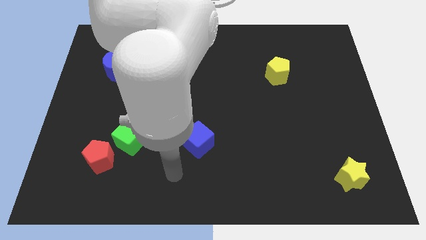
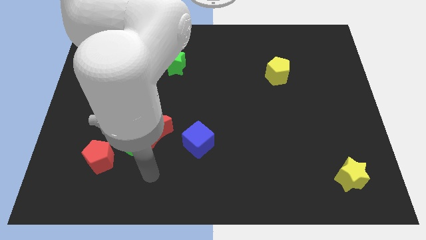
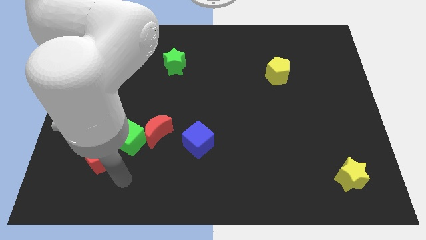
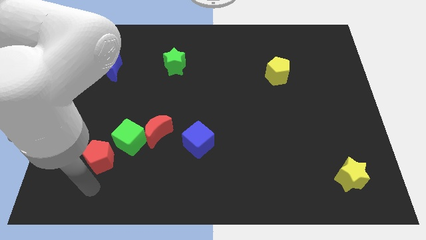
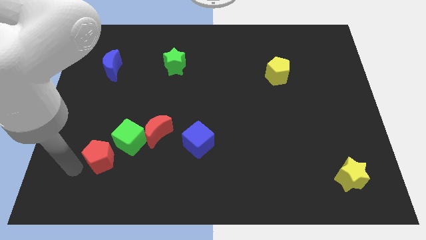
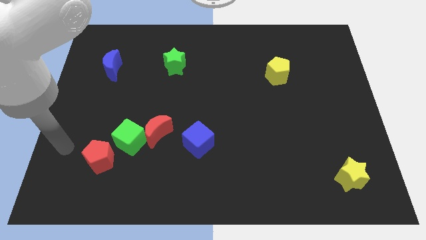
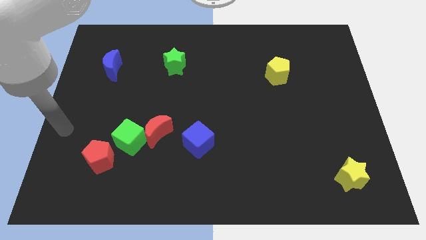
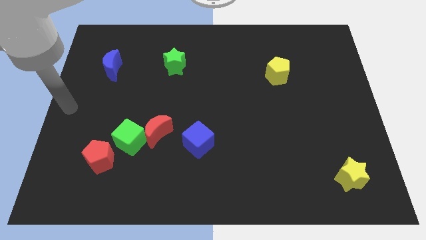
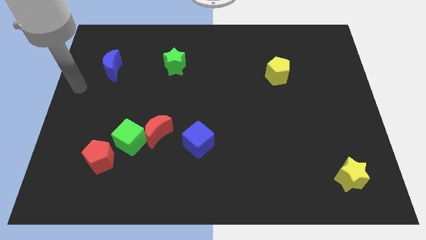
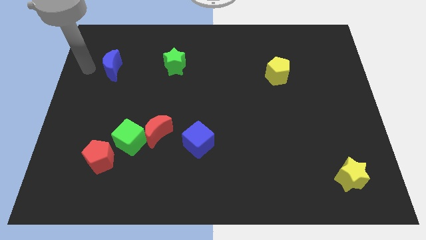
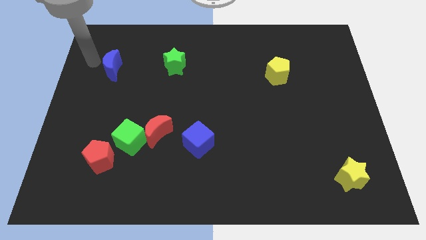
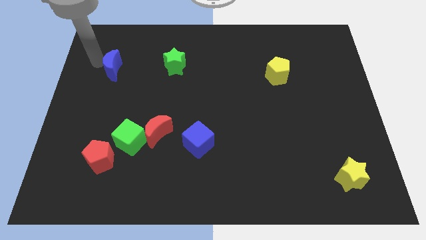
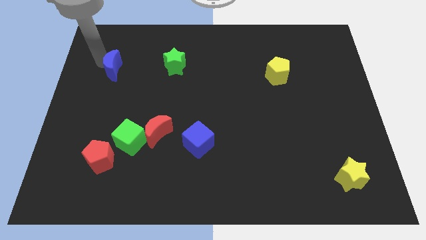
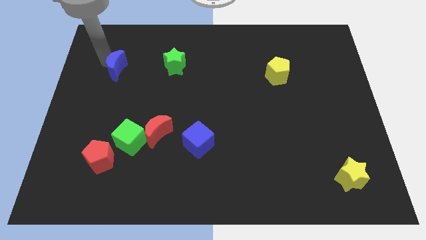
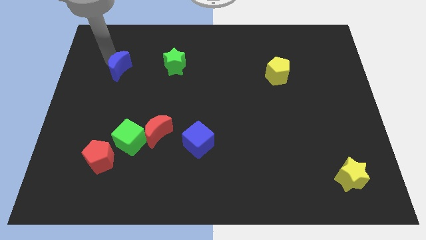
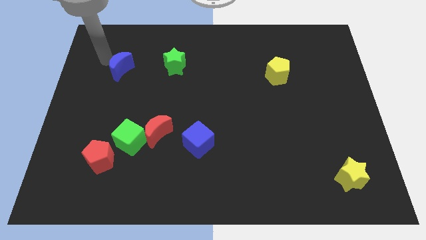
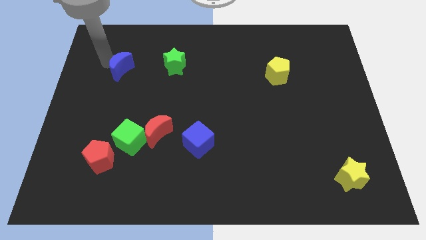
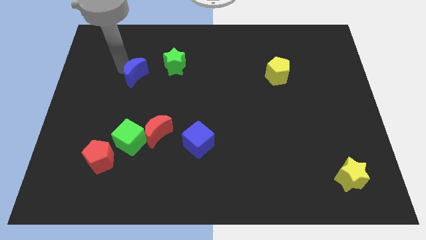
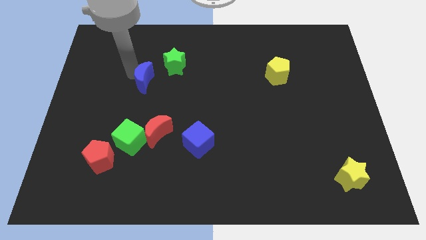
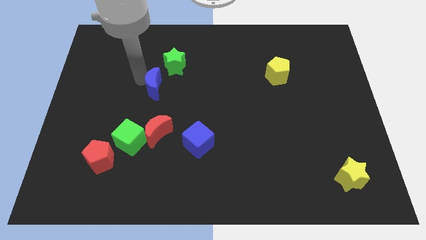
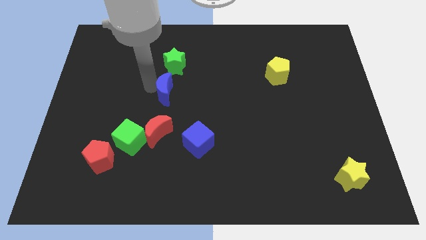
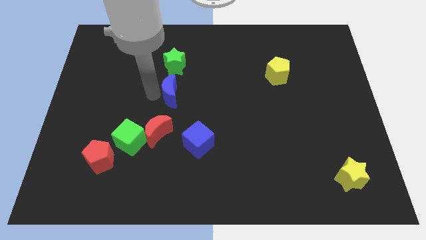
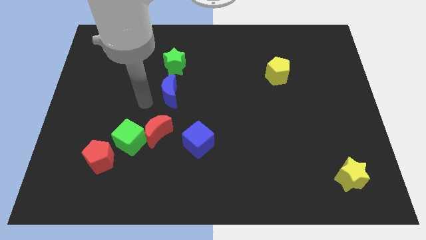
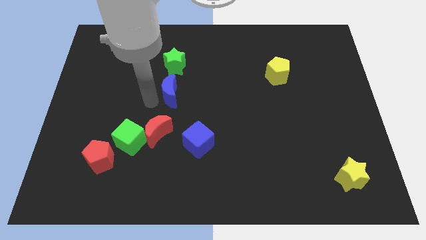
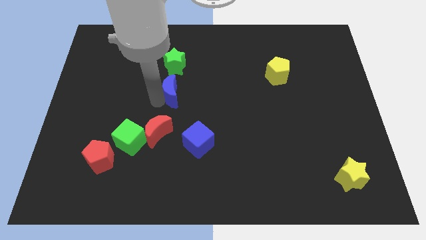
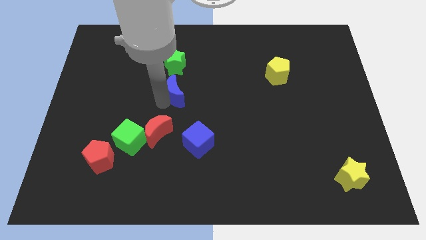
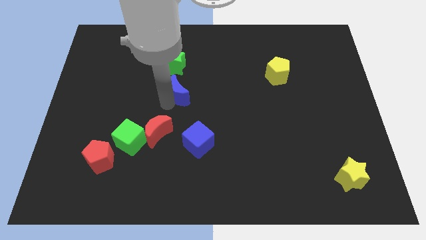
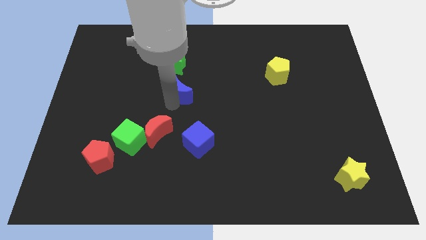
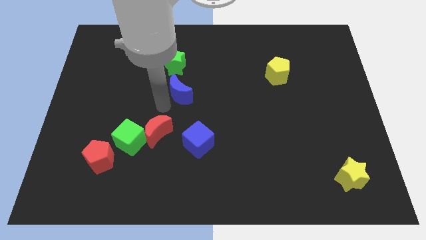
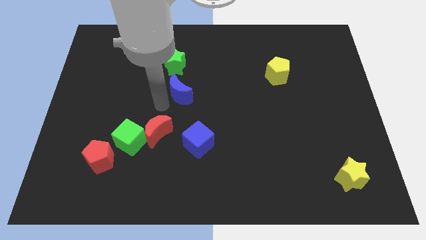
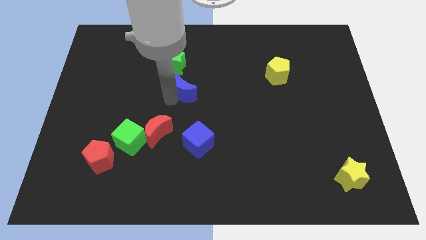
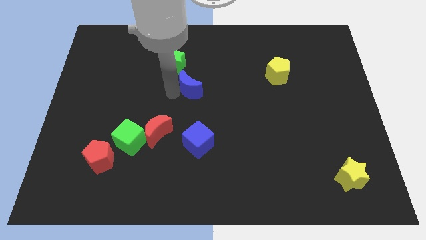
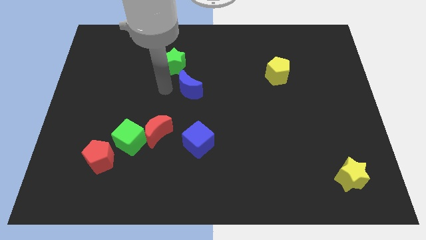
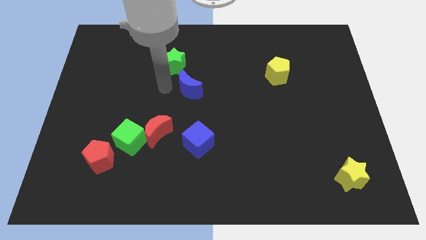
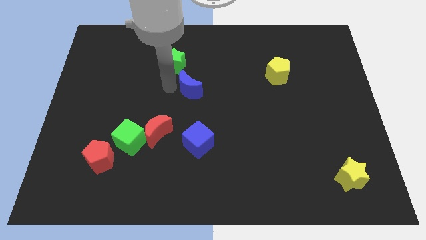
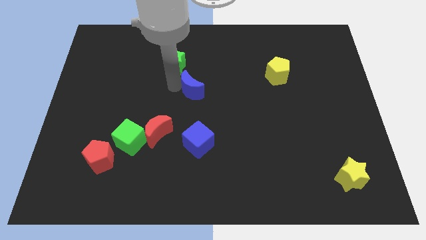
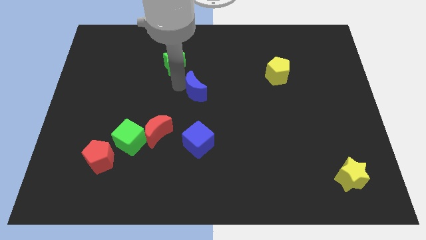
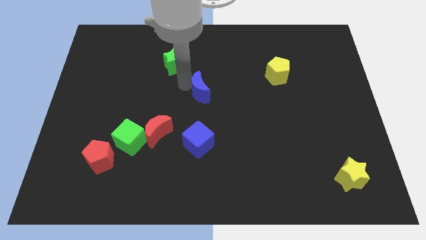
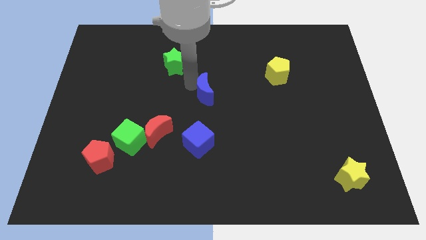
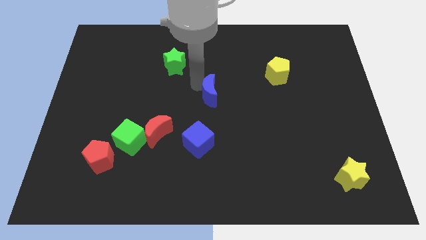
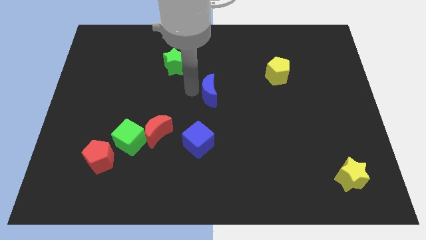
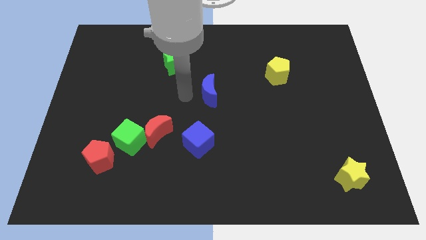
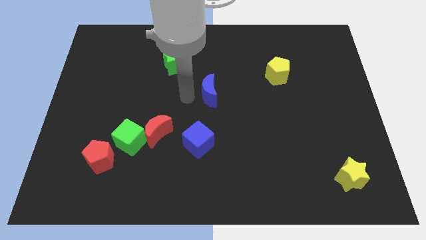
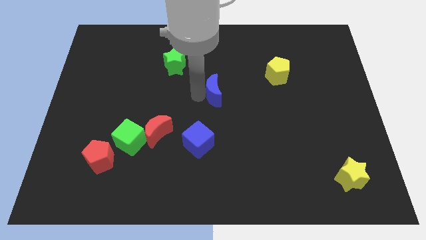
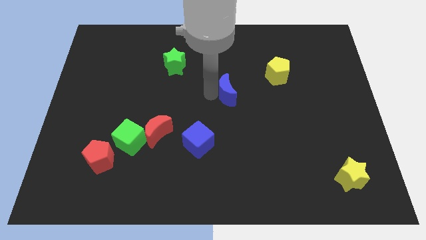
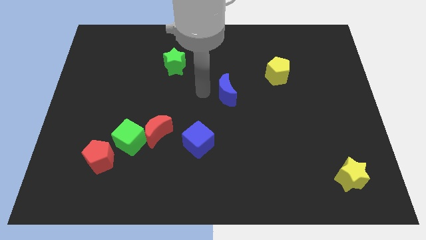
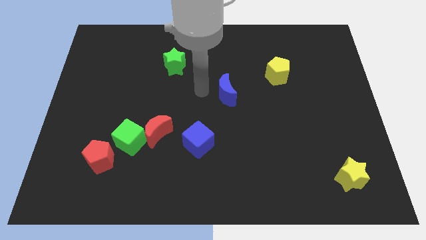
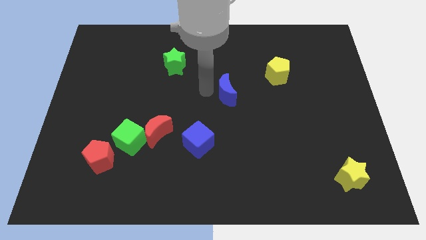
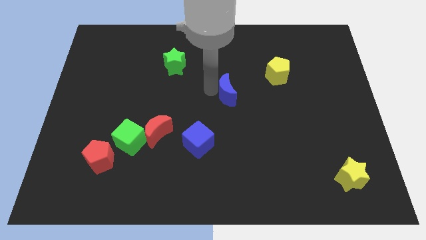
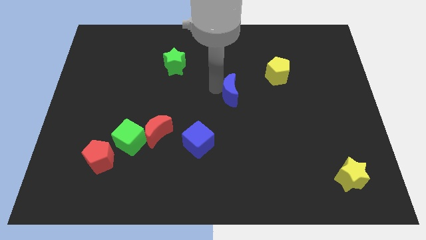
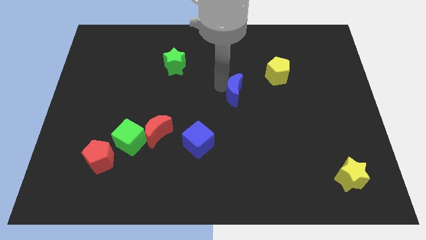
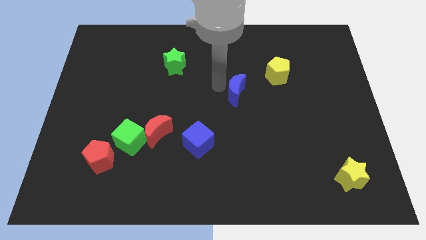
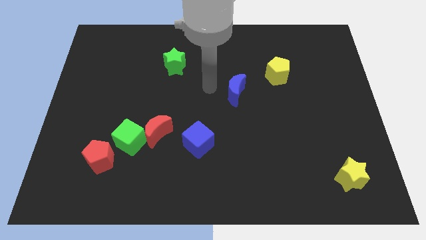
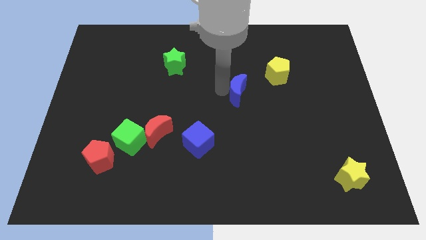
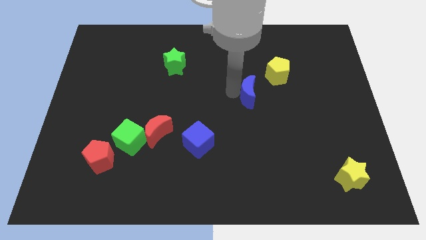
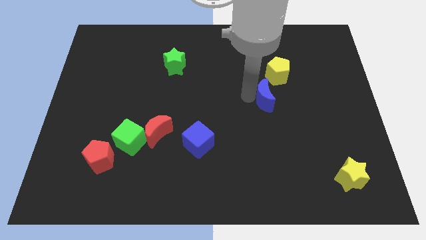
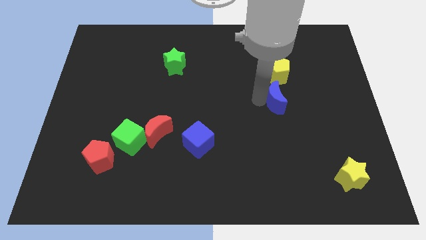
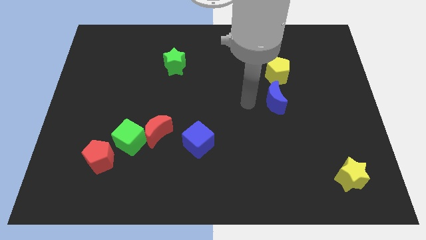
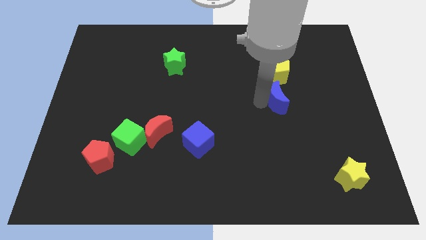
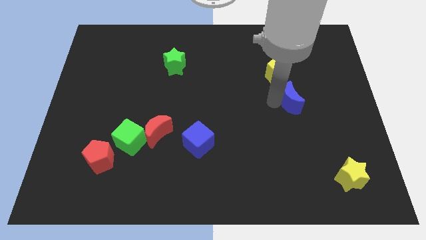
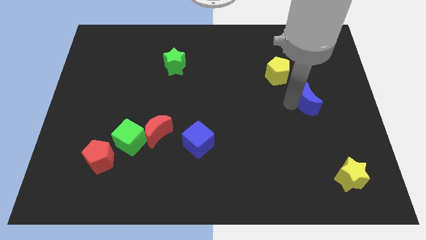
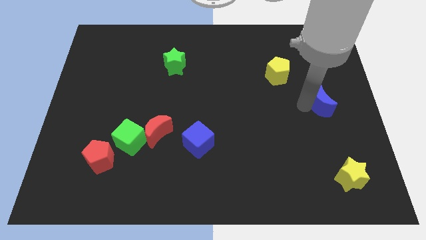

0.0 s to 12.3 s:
push the blue moon to the center right

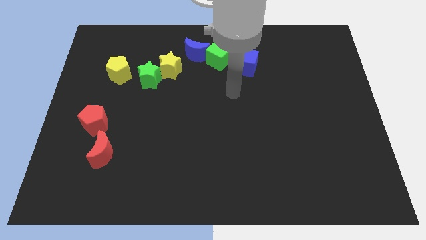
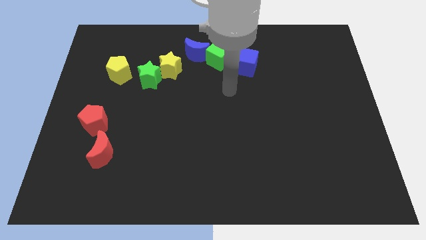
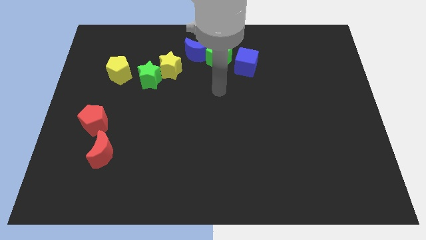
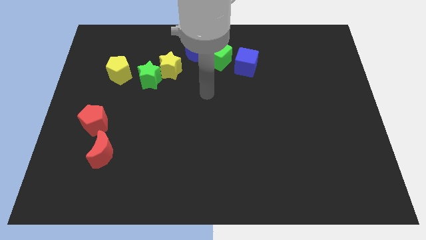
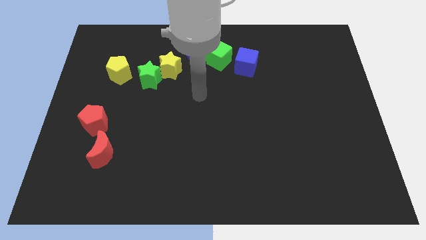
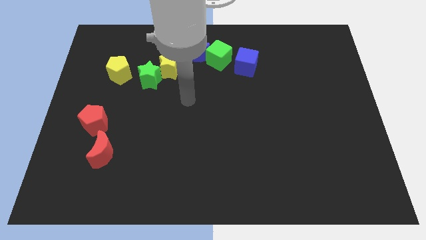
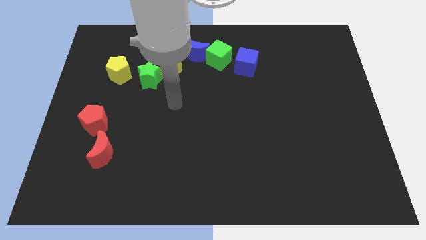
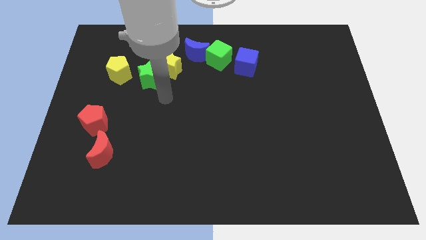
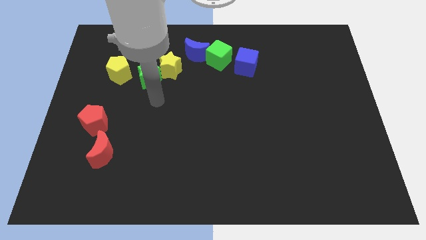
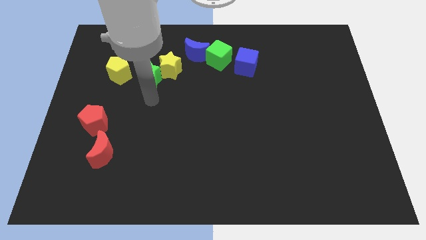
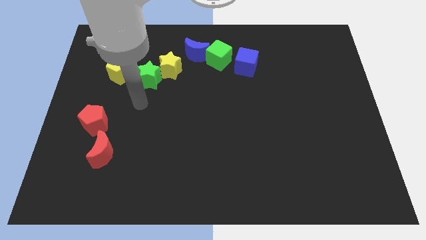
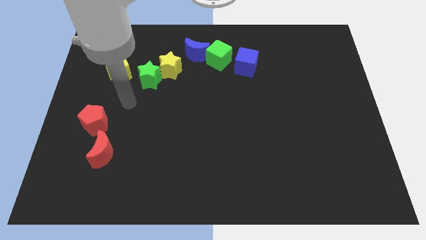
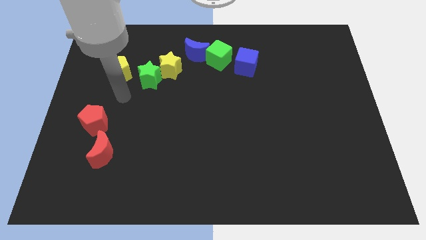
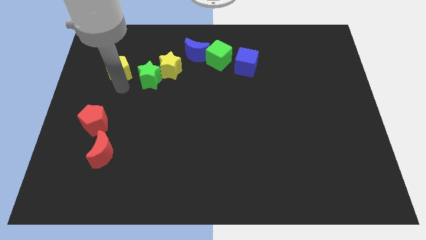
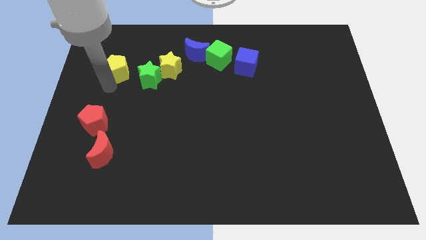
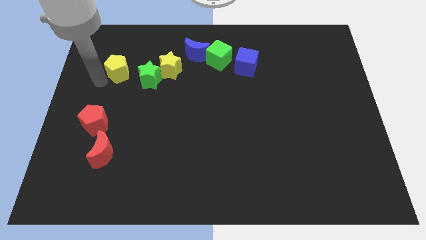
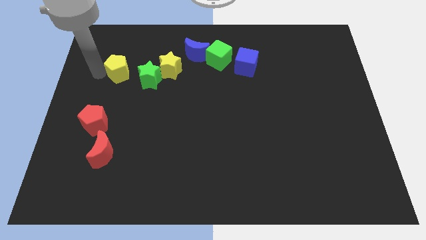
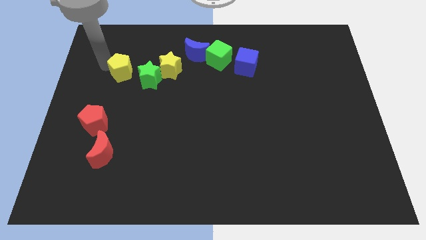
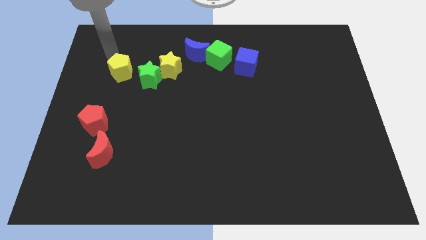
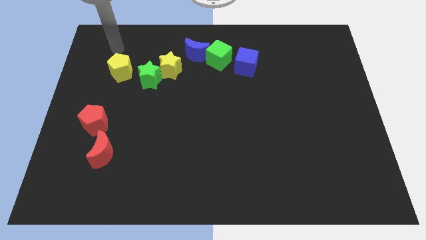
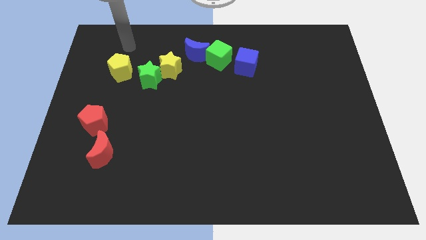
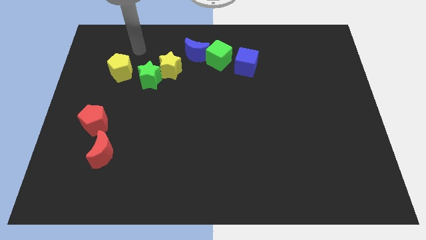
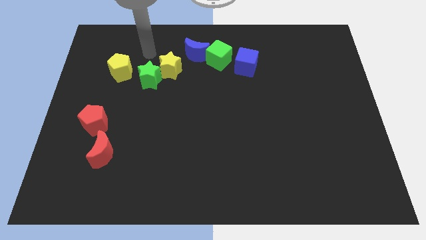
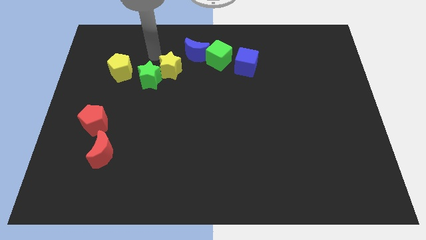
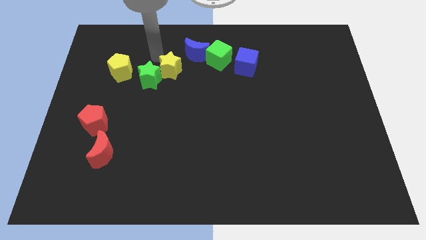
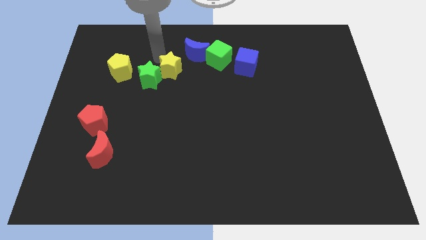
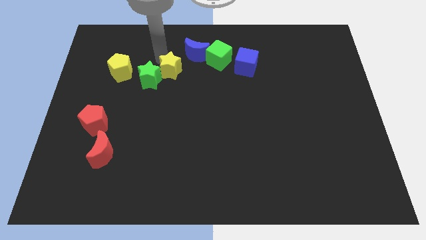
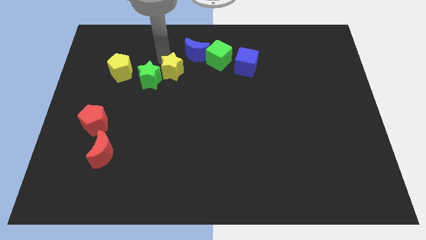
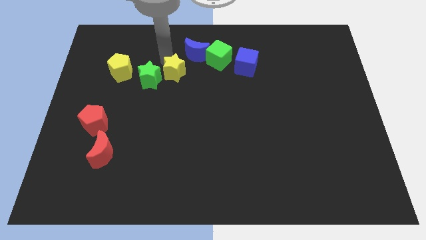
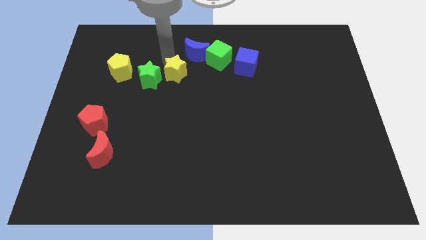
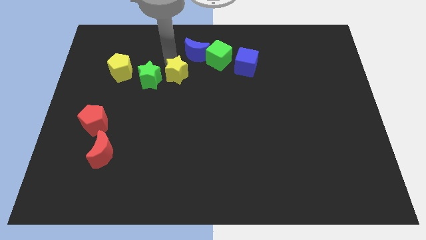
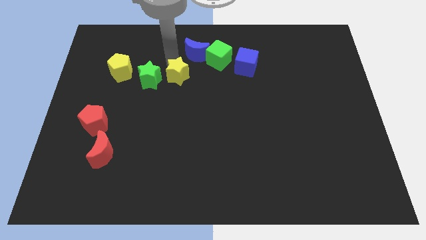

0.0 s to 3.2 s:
slide the yellow star to the middle
